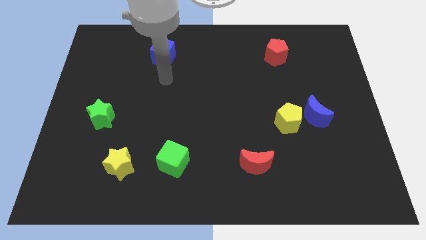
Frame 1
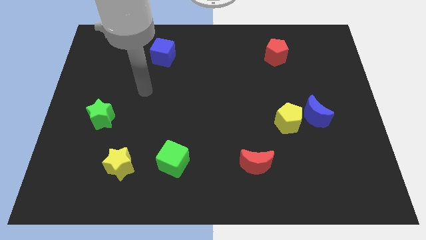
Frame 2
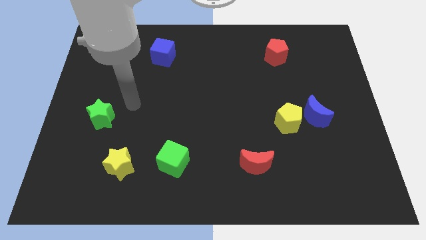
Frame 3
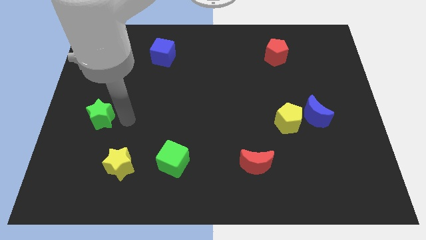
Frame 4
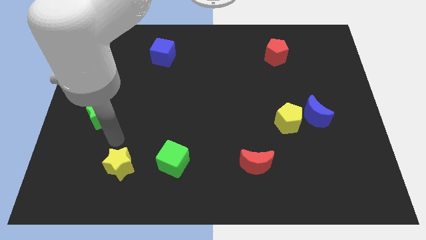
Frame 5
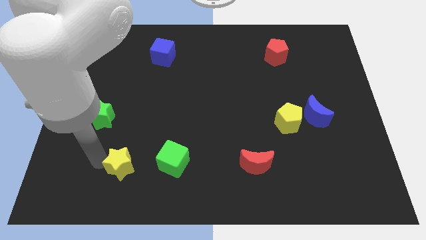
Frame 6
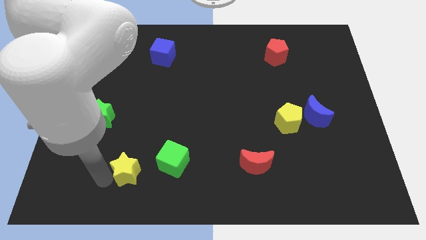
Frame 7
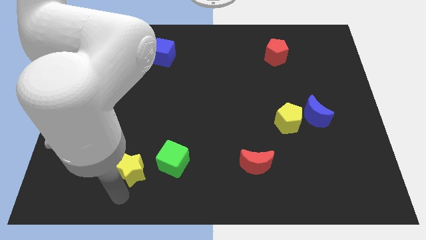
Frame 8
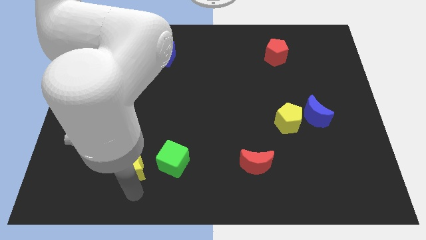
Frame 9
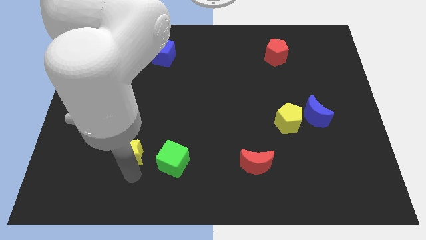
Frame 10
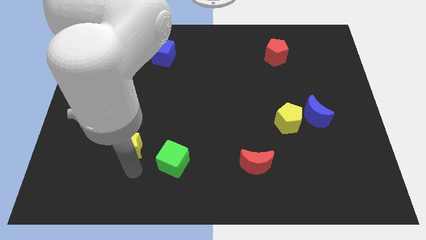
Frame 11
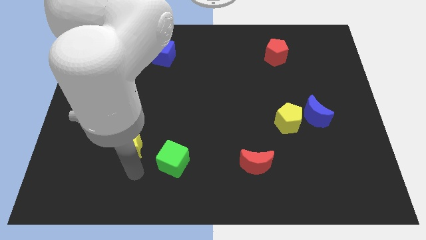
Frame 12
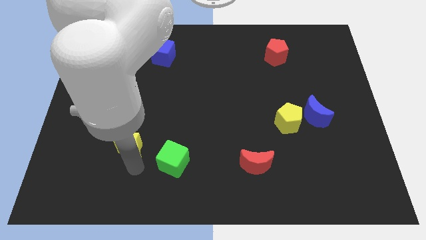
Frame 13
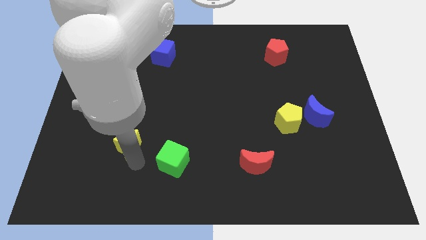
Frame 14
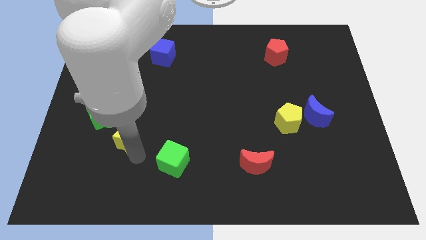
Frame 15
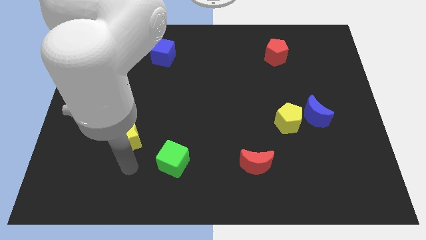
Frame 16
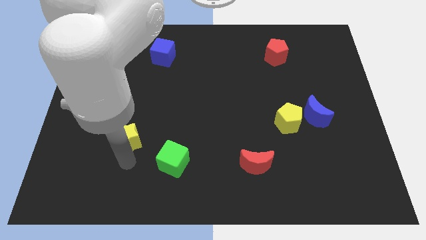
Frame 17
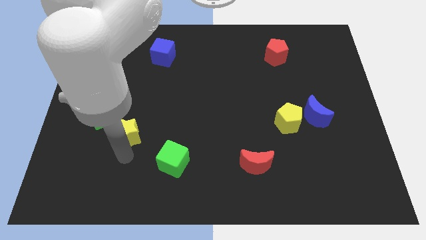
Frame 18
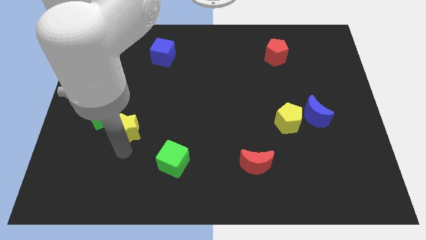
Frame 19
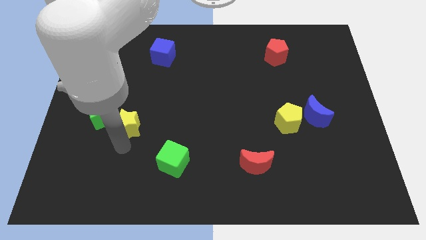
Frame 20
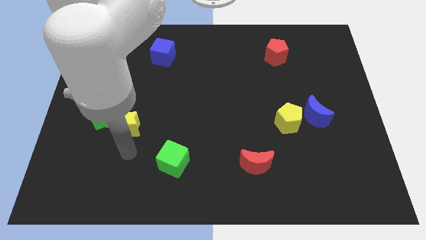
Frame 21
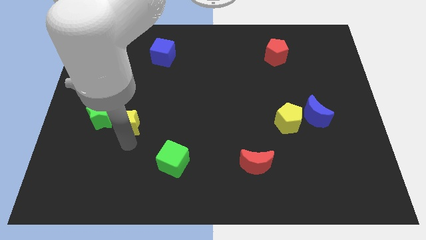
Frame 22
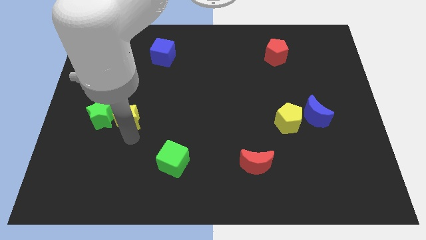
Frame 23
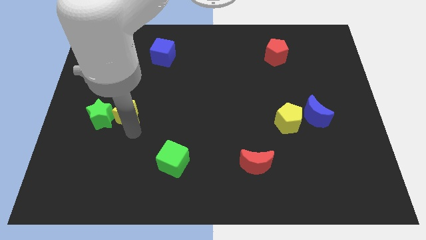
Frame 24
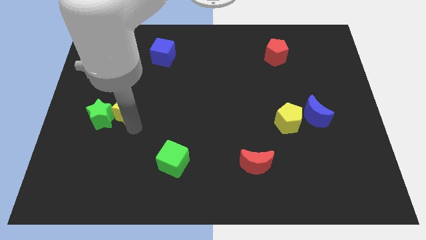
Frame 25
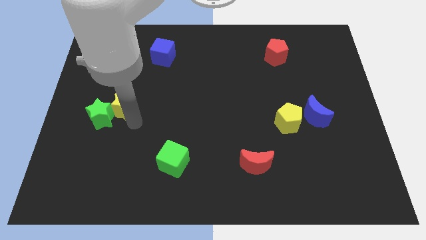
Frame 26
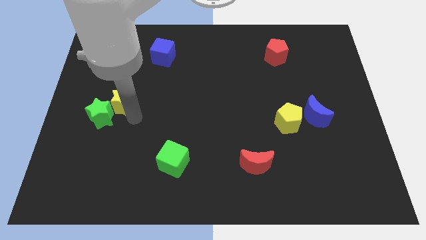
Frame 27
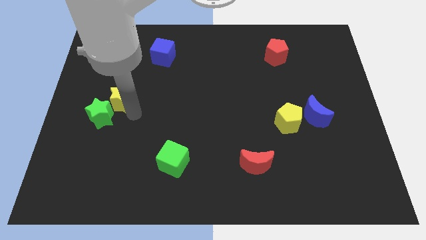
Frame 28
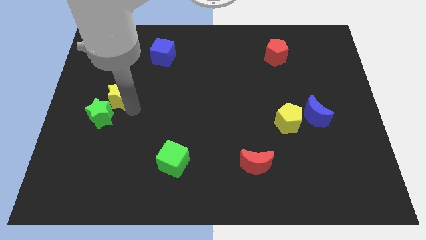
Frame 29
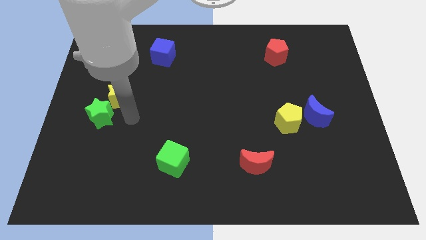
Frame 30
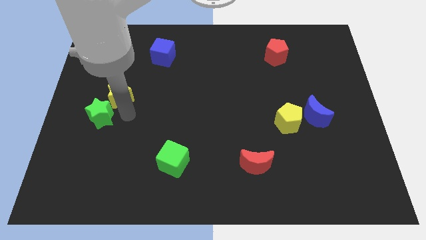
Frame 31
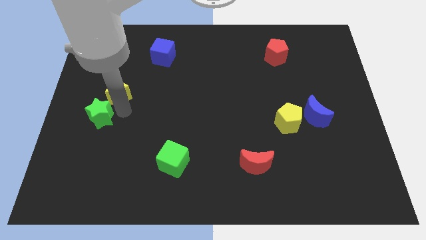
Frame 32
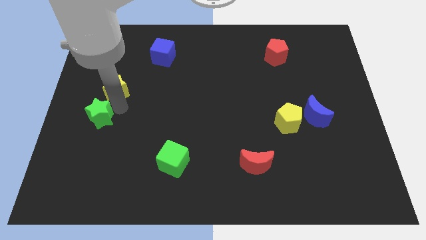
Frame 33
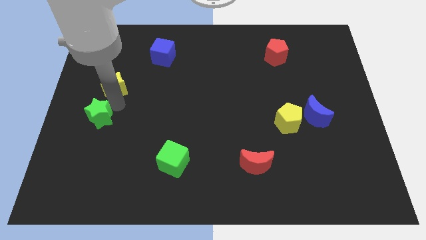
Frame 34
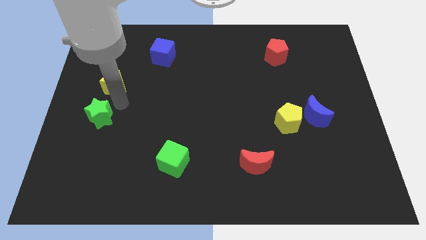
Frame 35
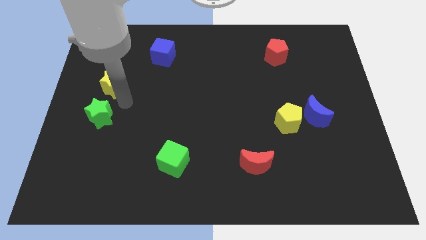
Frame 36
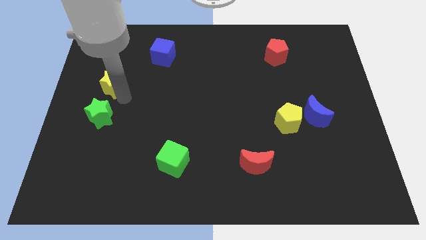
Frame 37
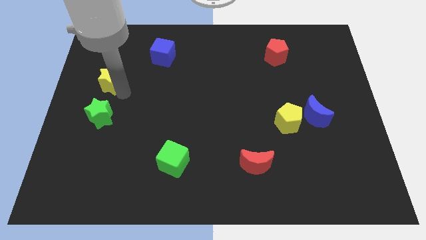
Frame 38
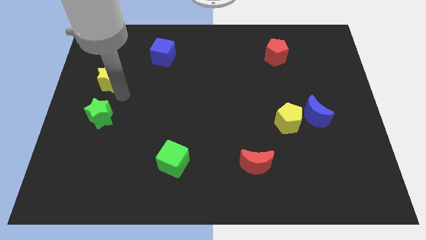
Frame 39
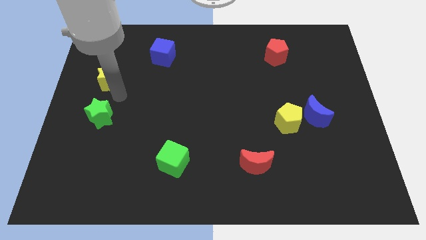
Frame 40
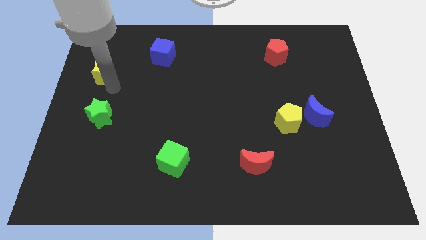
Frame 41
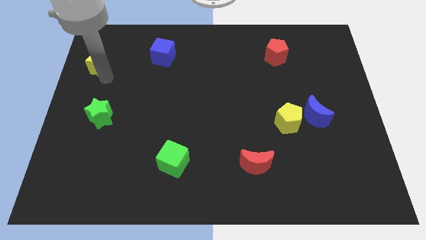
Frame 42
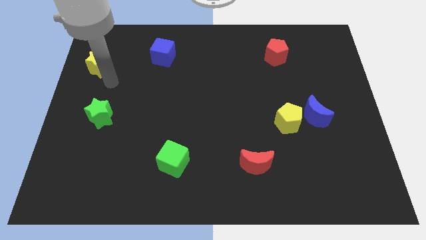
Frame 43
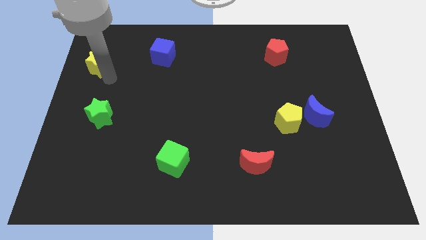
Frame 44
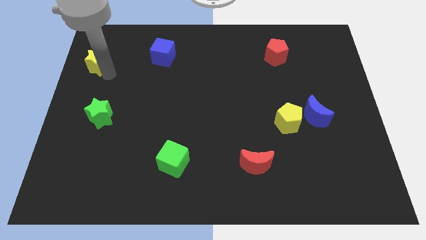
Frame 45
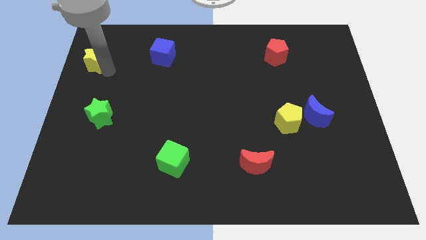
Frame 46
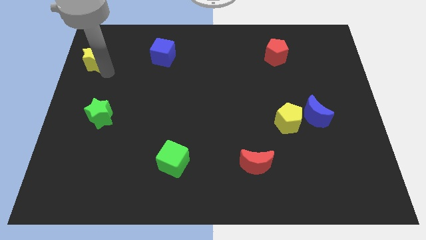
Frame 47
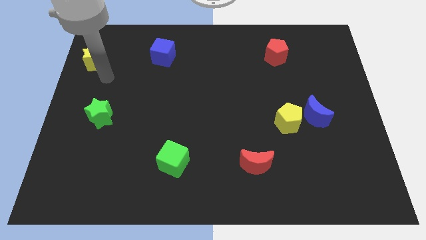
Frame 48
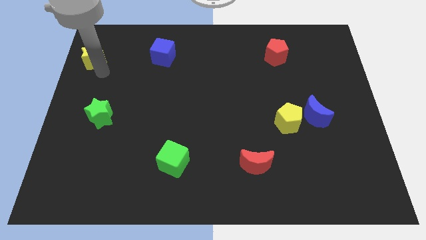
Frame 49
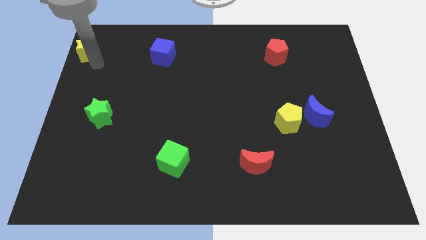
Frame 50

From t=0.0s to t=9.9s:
put the yellow star to the top left corner

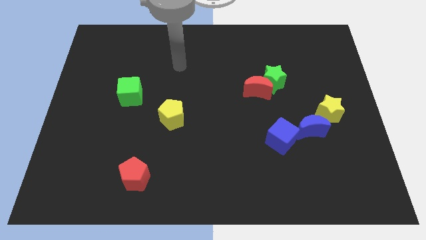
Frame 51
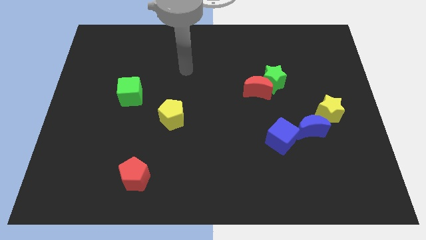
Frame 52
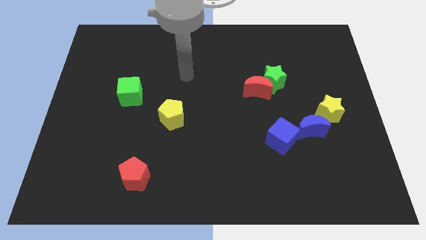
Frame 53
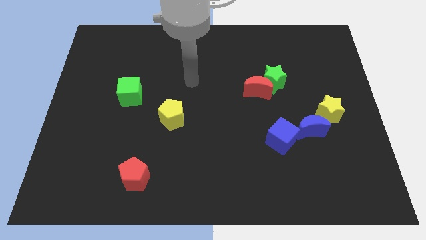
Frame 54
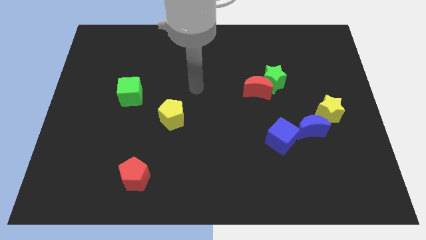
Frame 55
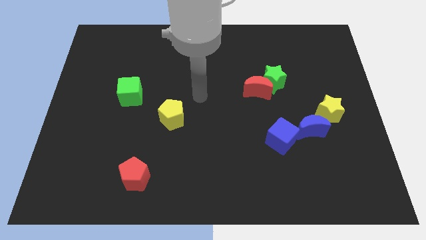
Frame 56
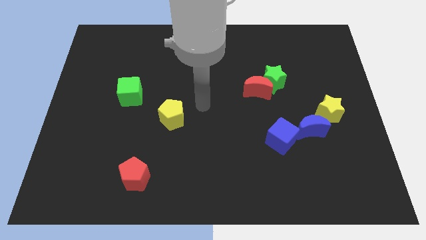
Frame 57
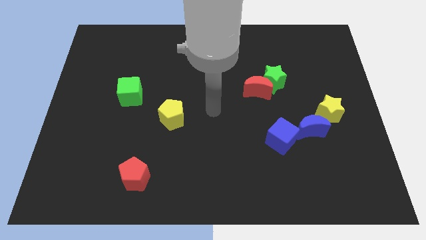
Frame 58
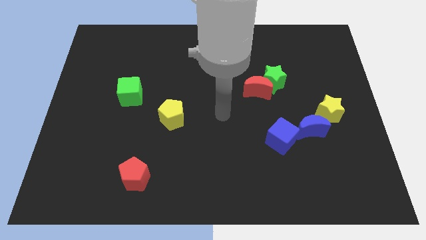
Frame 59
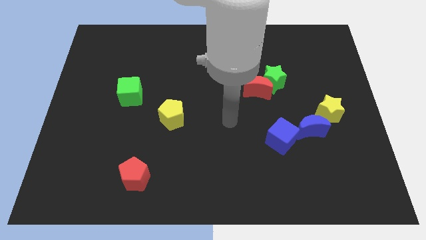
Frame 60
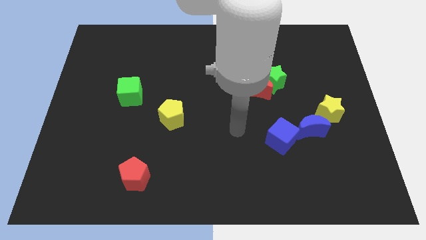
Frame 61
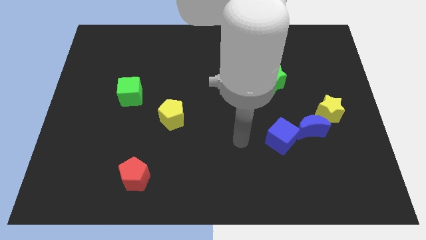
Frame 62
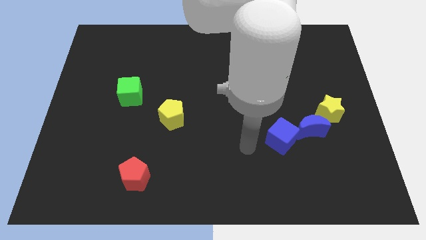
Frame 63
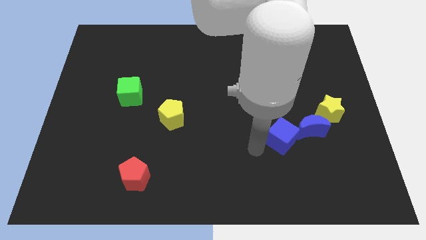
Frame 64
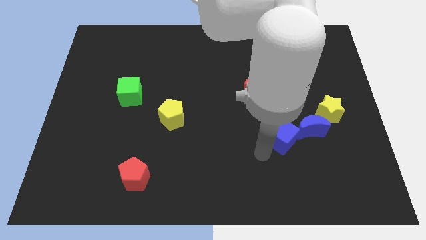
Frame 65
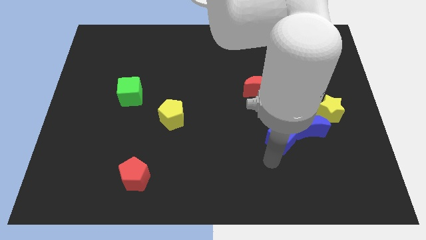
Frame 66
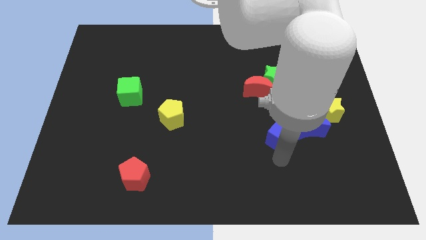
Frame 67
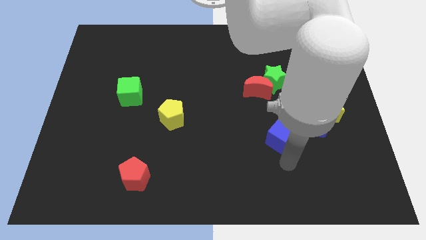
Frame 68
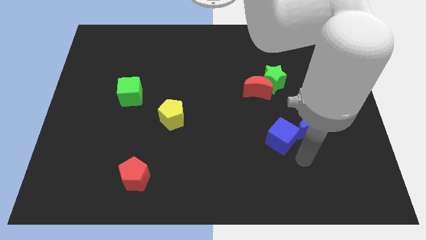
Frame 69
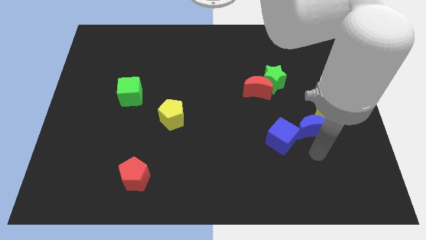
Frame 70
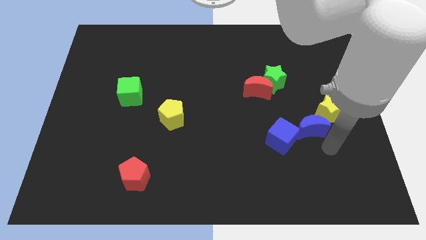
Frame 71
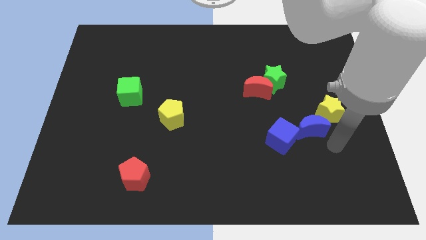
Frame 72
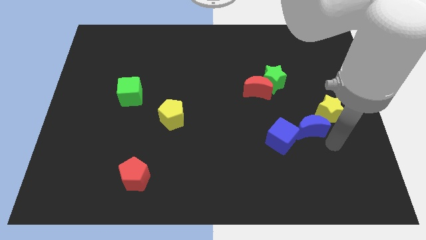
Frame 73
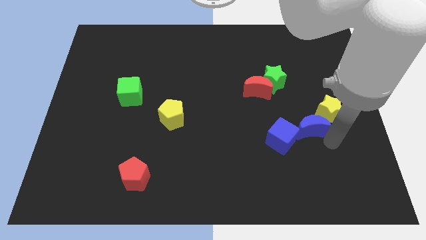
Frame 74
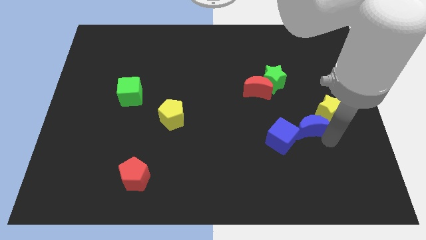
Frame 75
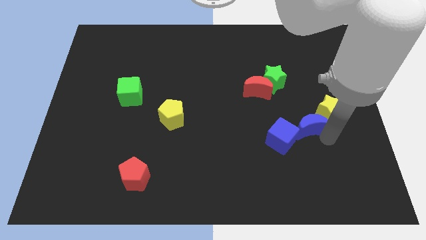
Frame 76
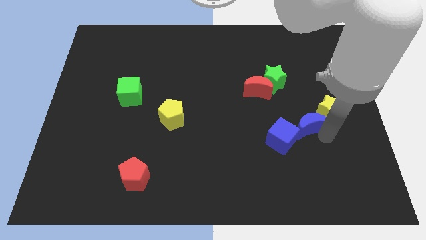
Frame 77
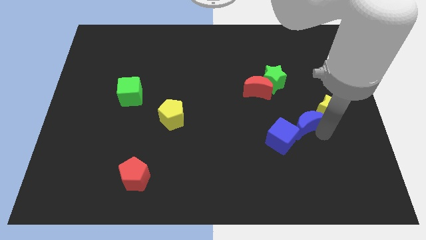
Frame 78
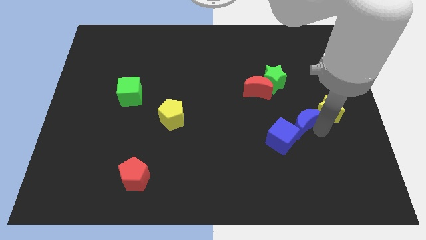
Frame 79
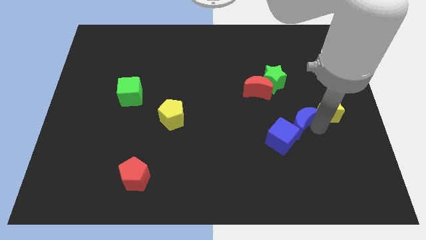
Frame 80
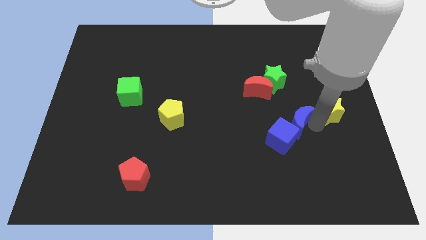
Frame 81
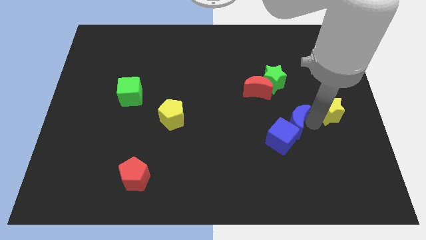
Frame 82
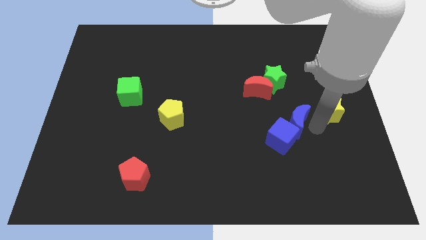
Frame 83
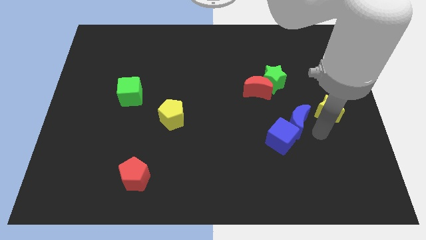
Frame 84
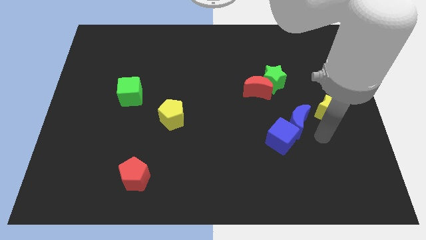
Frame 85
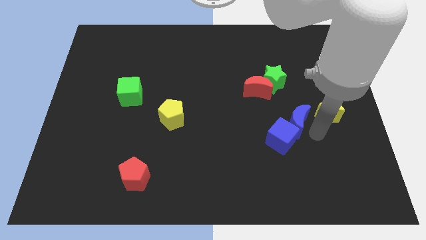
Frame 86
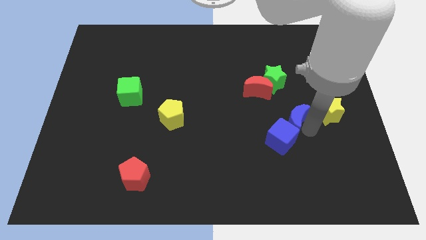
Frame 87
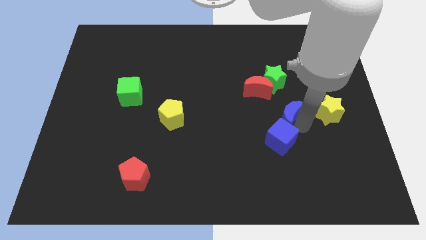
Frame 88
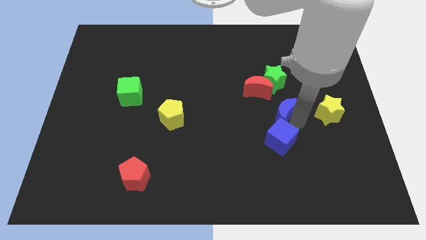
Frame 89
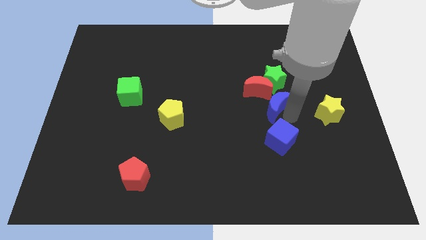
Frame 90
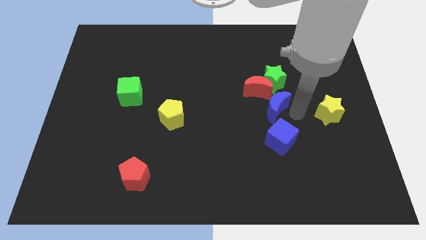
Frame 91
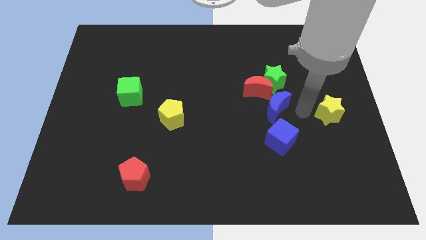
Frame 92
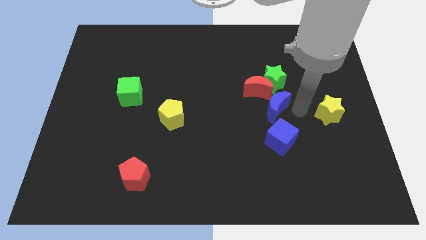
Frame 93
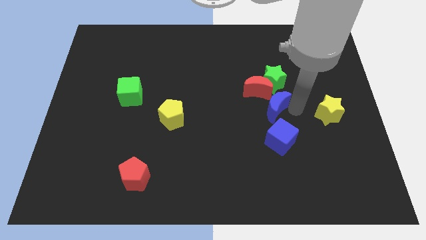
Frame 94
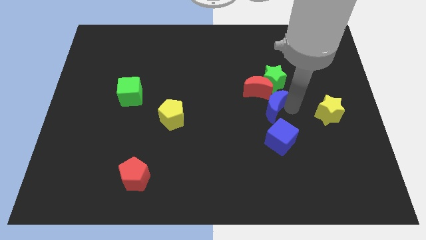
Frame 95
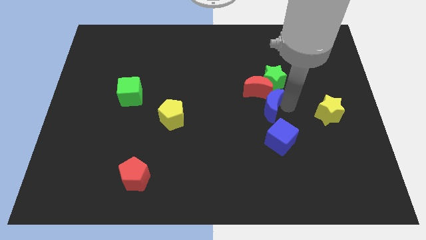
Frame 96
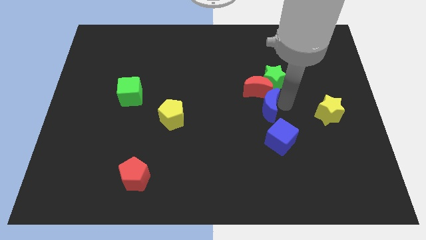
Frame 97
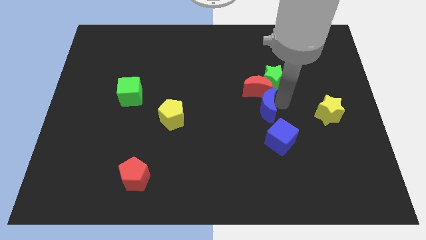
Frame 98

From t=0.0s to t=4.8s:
put the blue moon to the middle of the board
